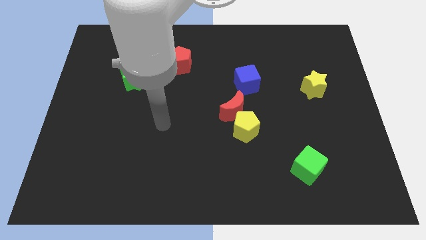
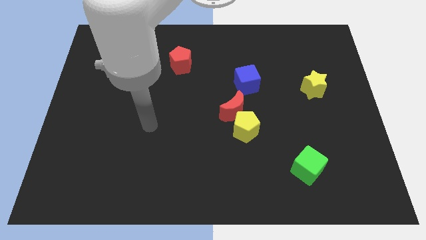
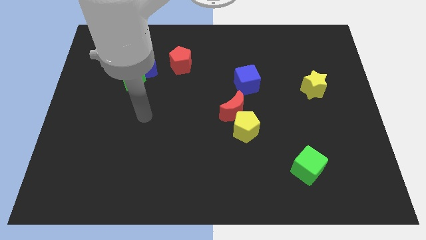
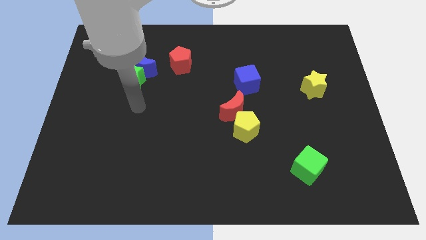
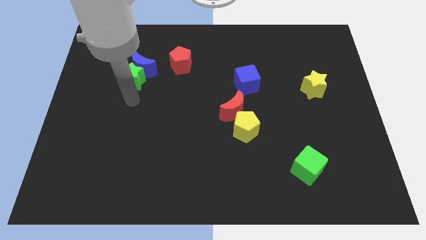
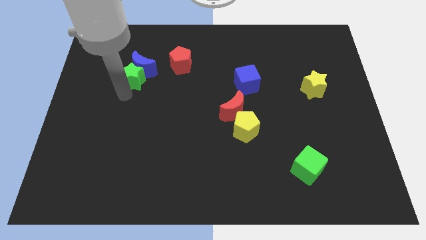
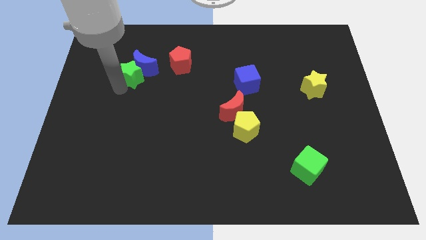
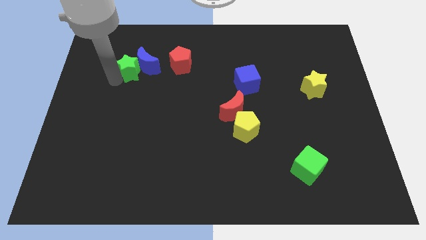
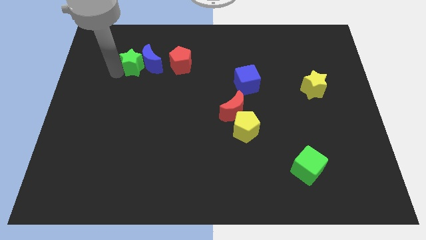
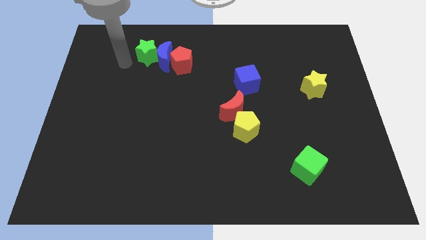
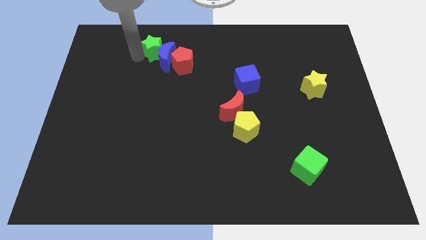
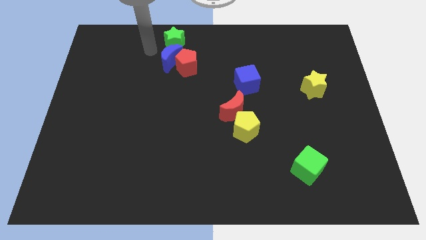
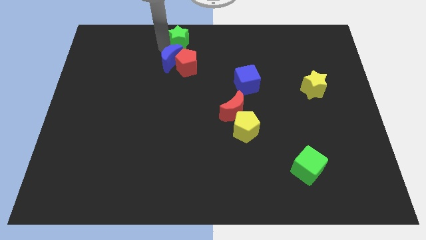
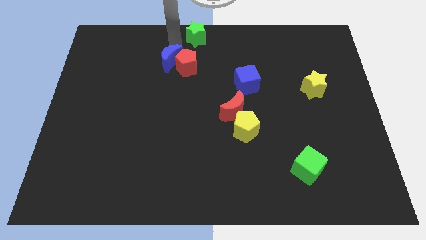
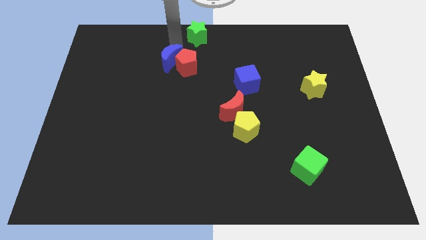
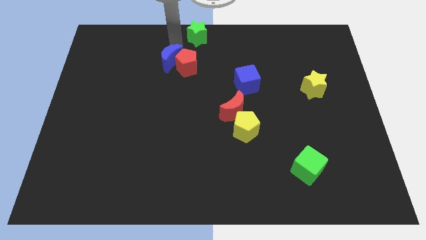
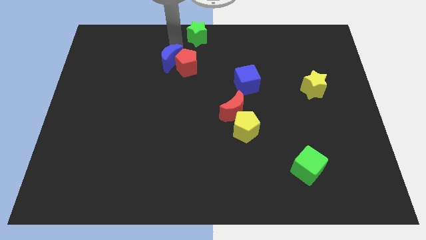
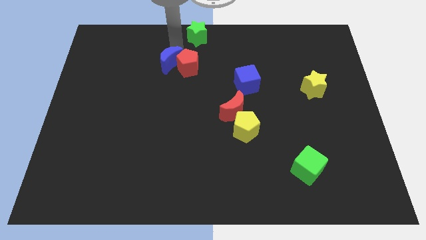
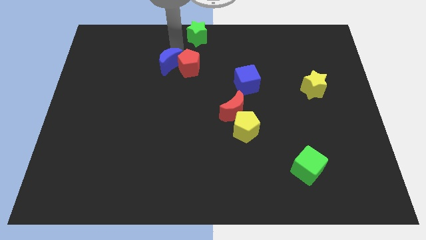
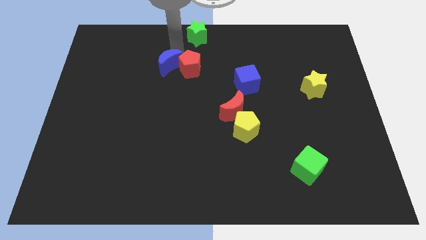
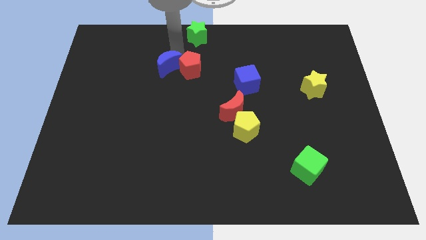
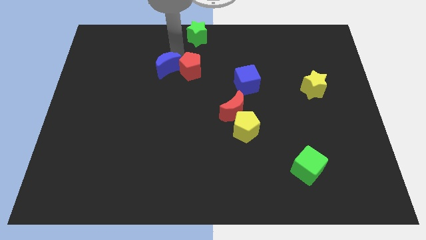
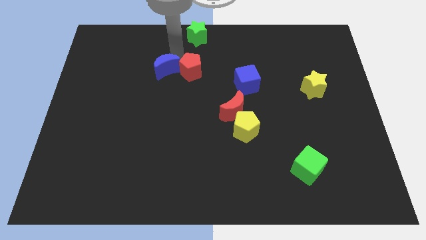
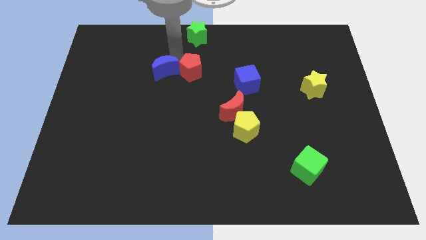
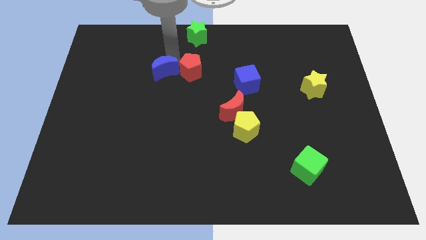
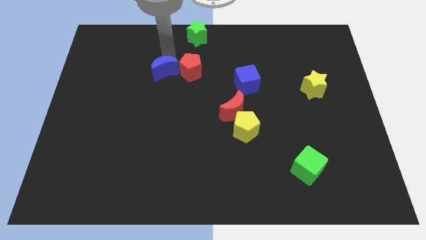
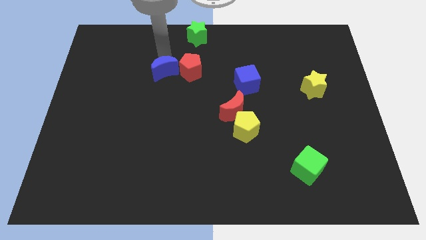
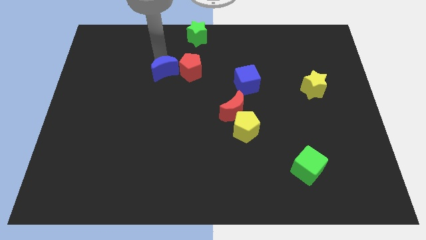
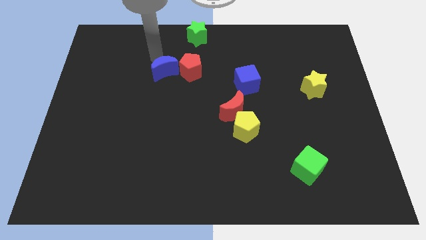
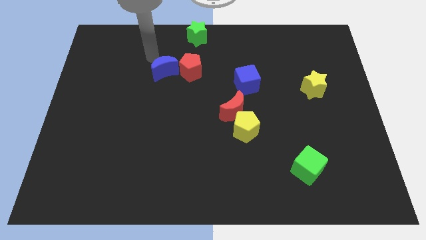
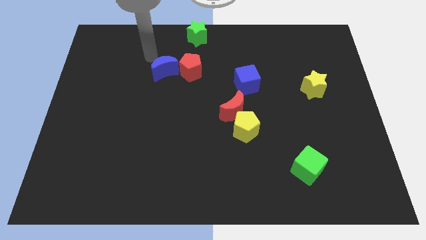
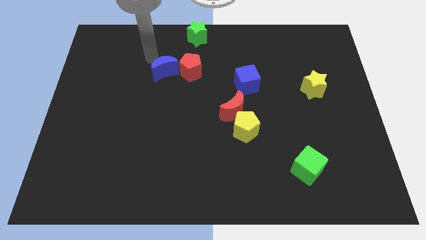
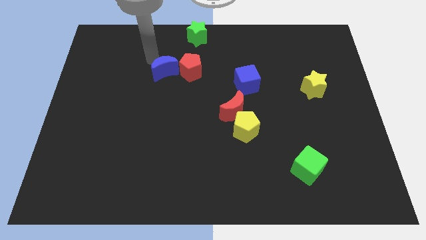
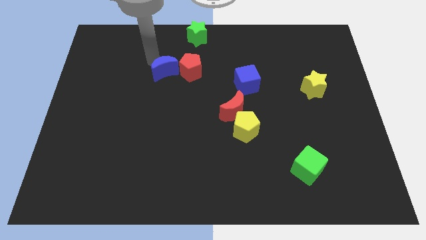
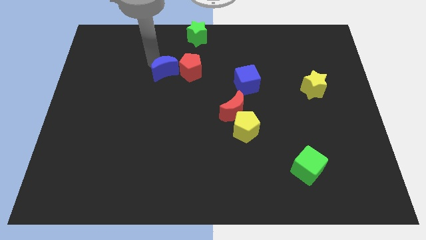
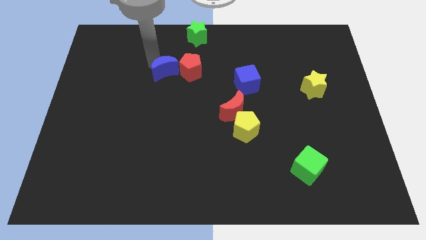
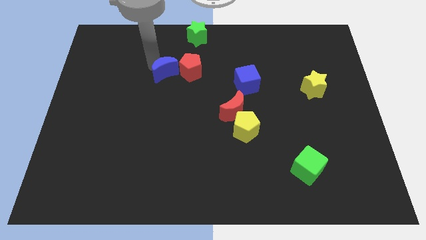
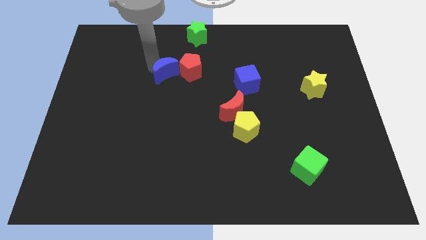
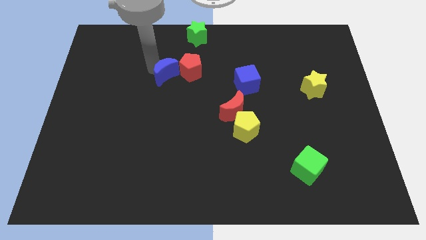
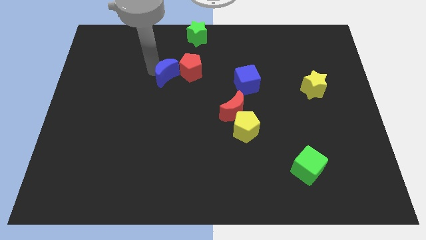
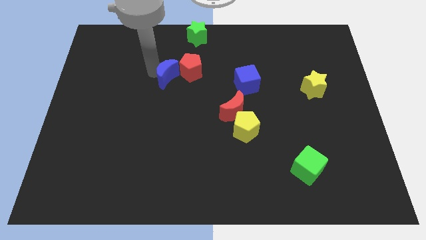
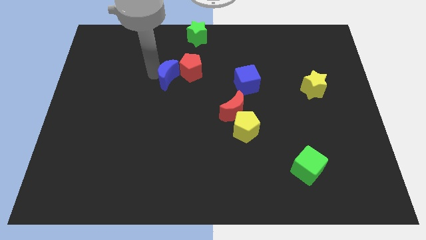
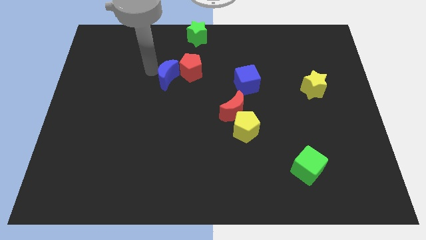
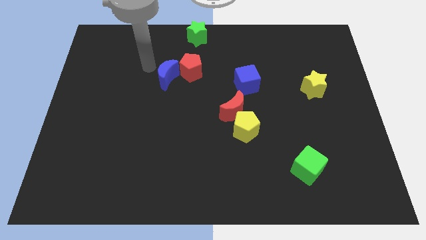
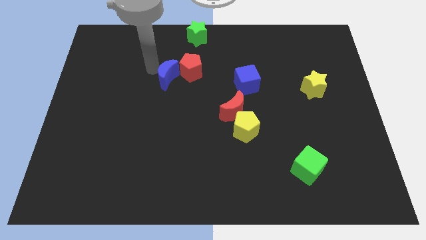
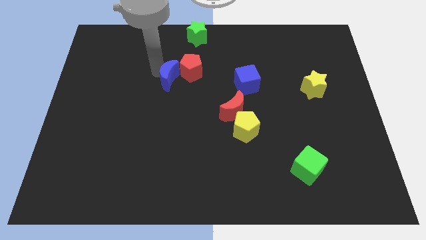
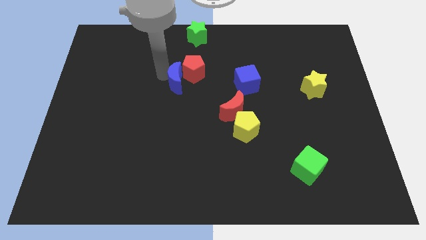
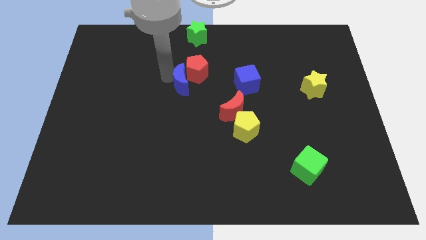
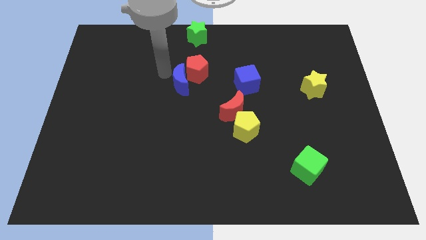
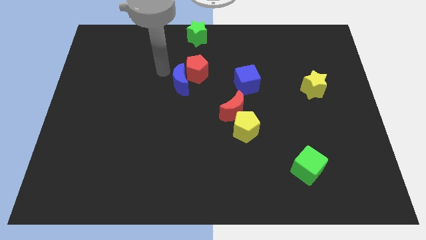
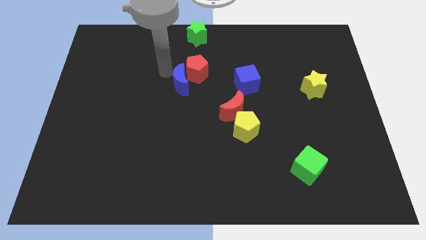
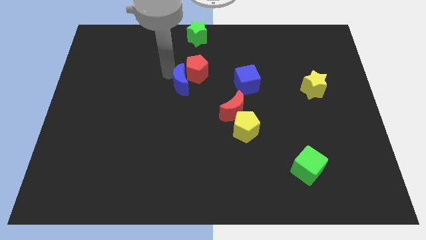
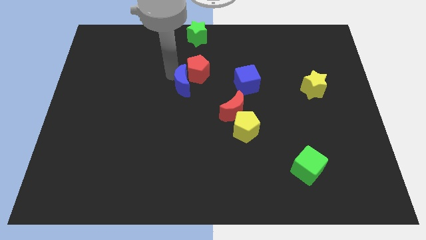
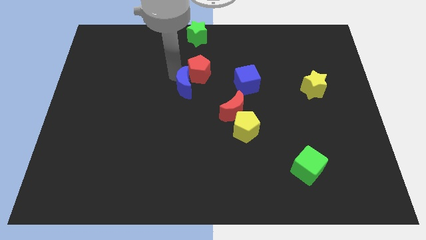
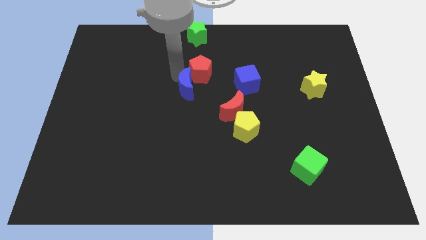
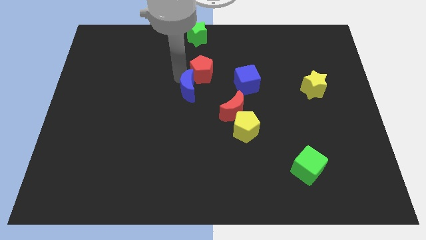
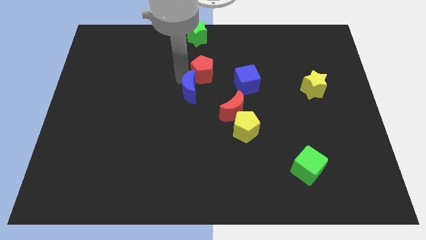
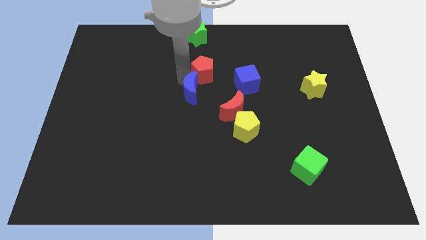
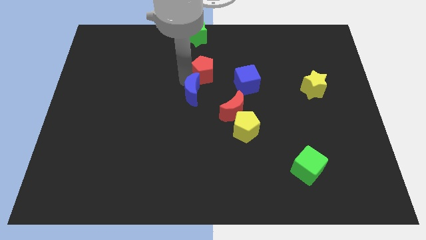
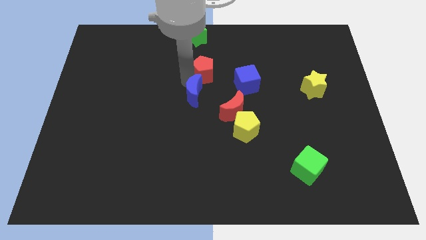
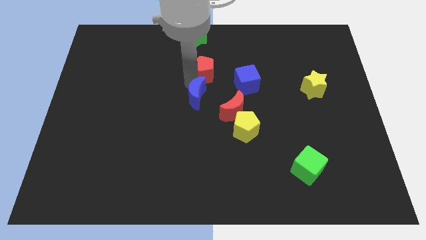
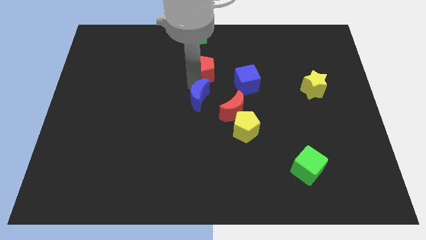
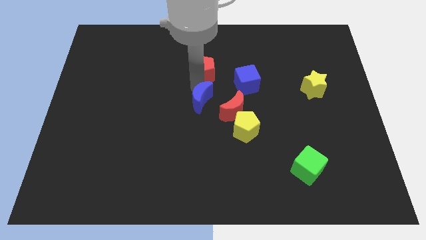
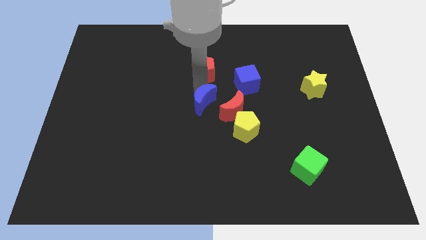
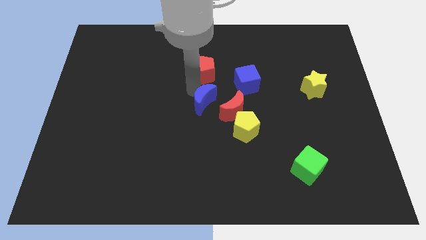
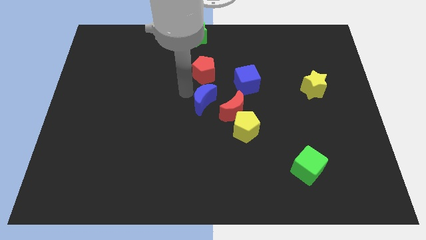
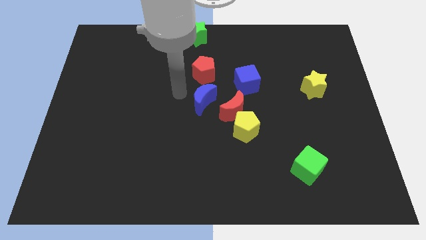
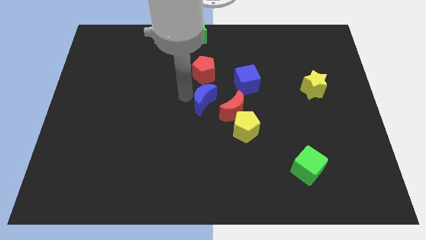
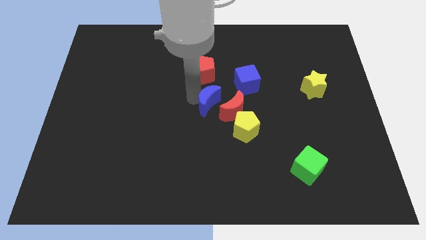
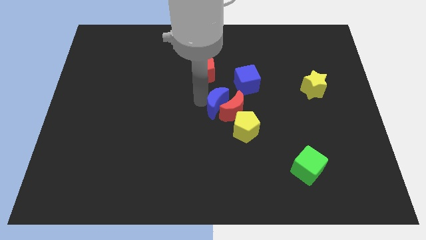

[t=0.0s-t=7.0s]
slide the blue moon next to the red moon
